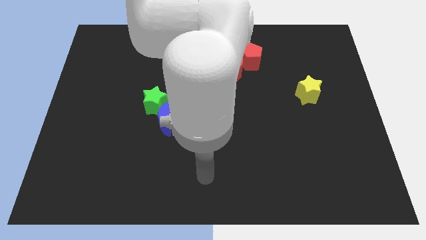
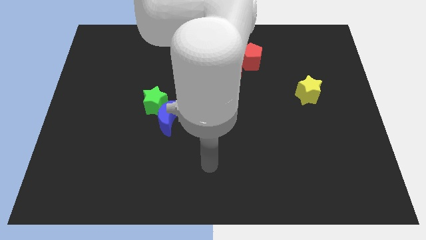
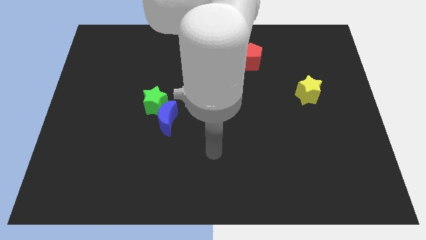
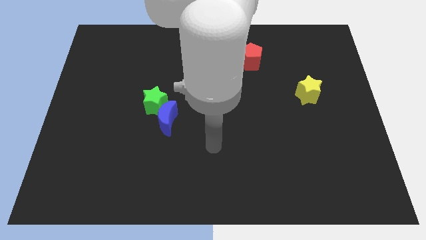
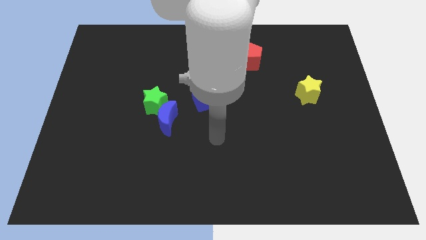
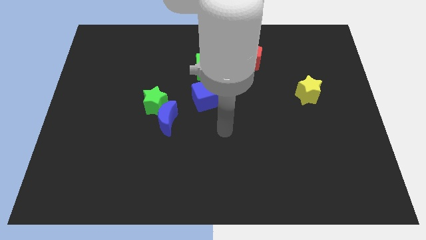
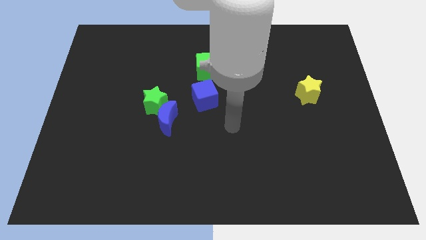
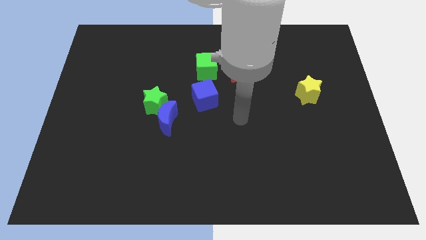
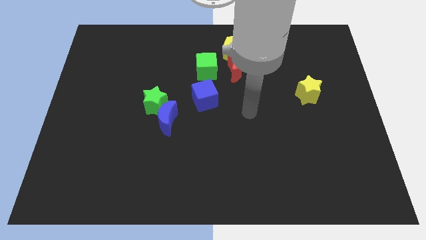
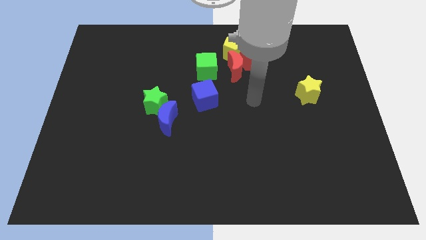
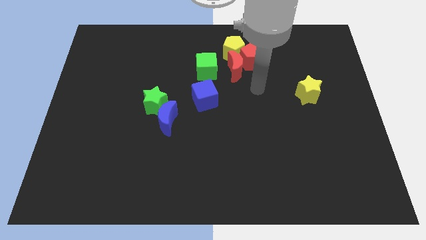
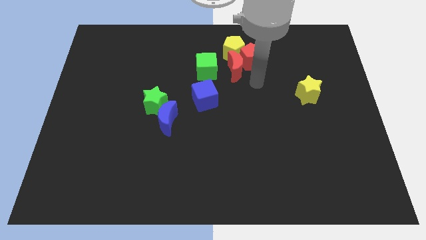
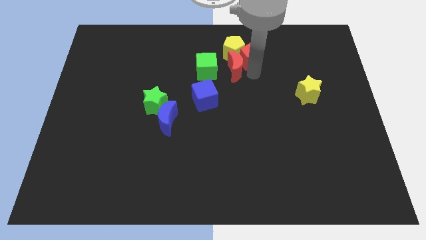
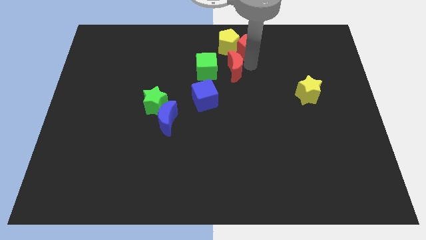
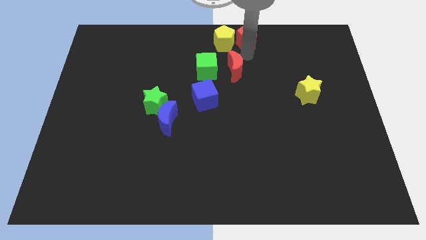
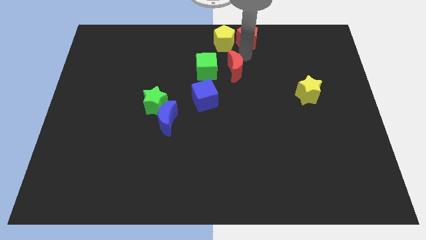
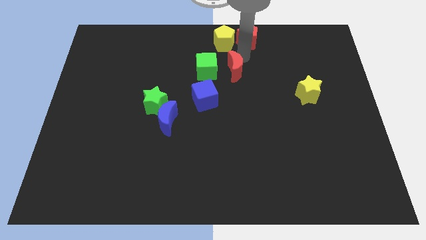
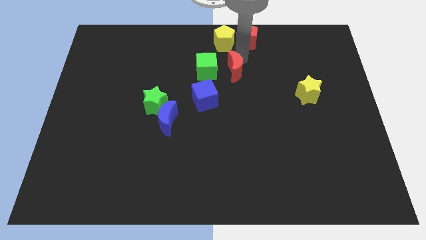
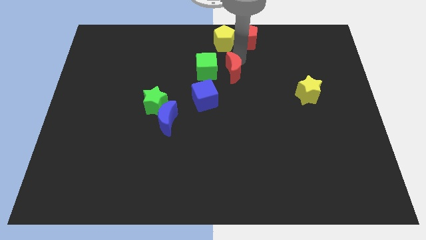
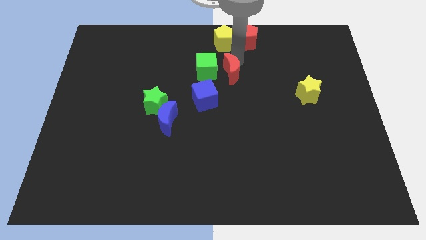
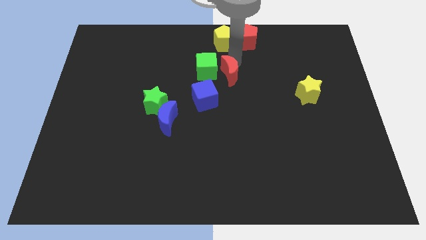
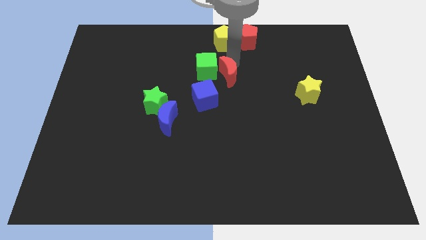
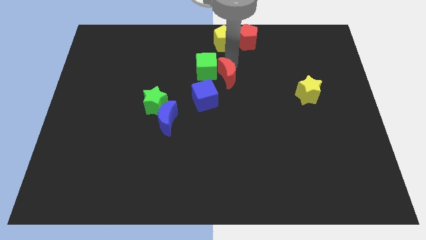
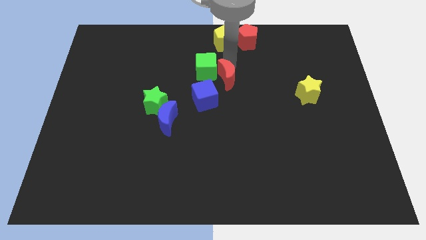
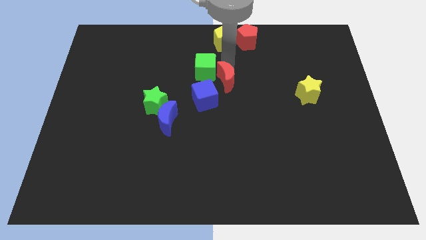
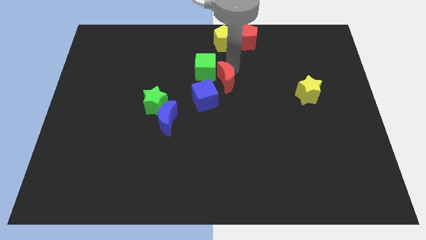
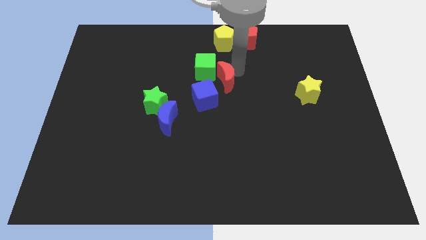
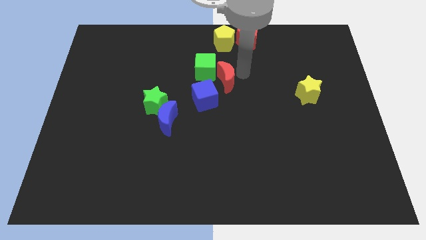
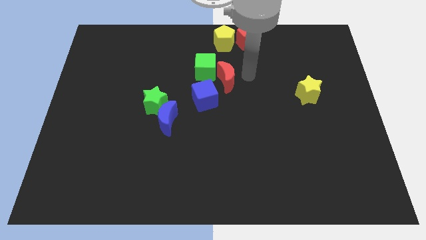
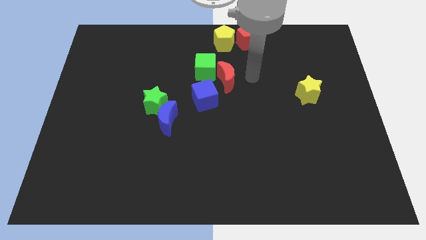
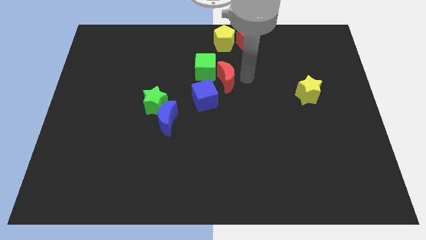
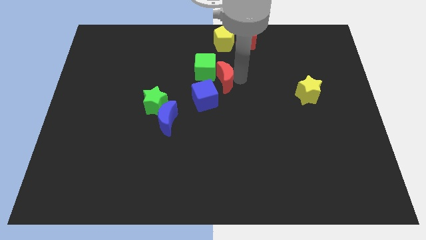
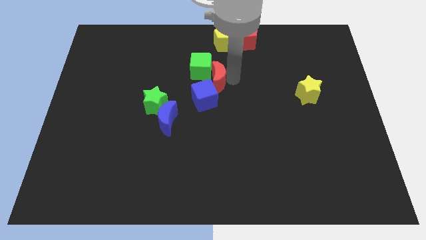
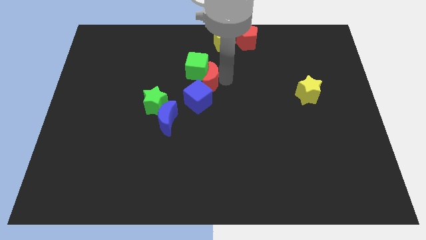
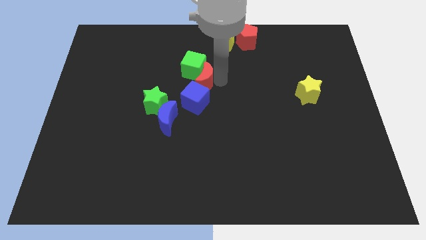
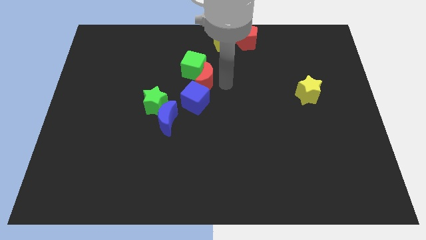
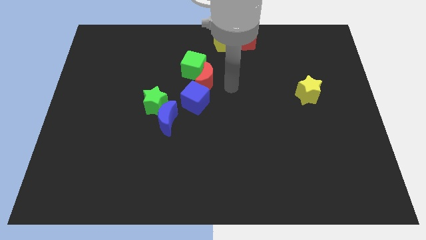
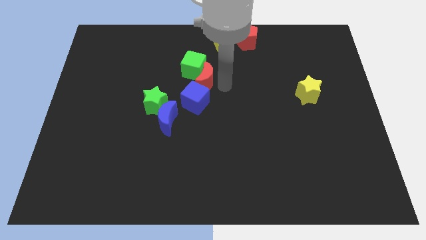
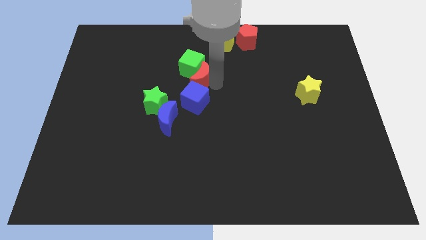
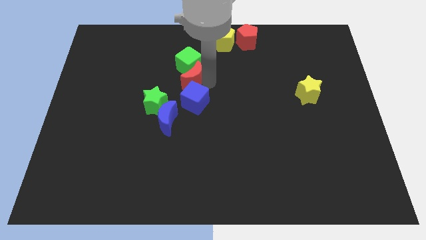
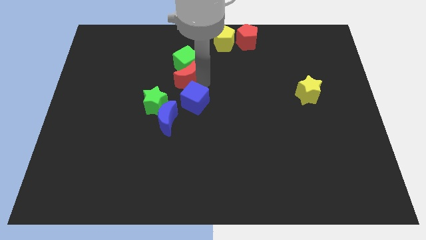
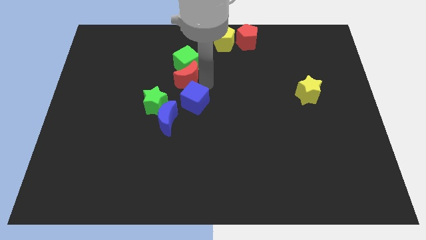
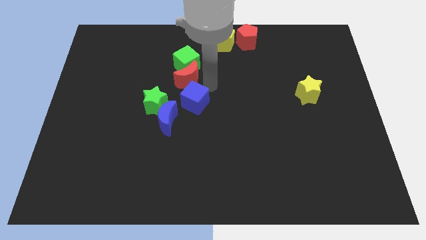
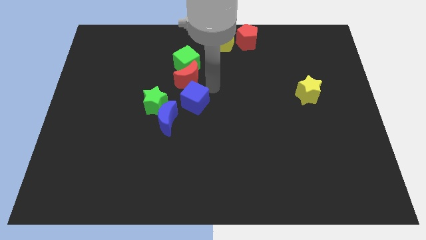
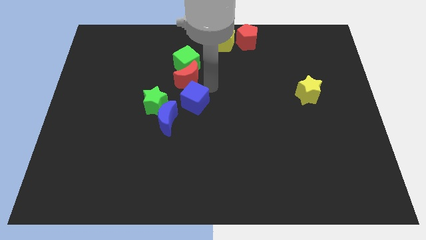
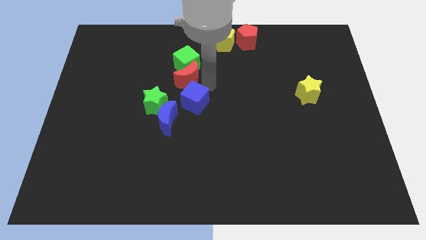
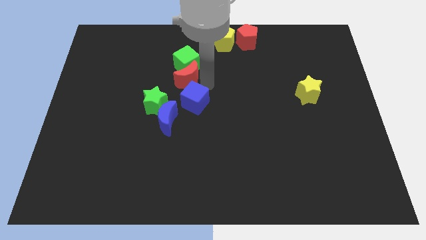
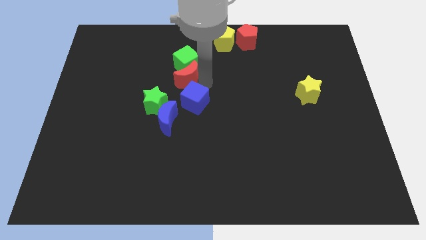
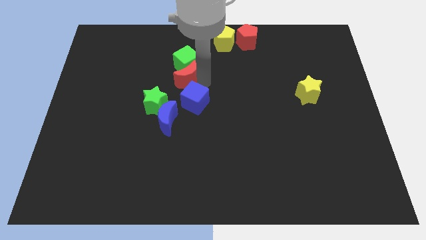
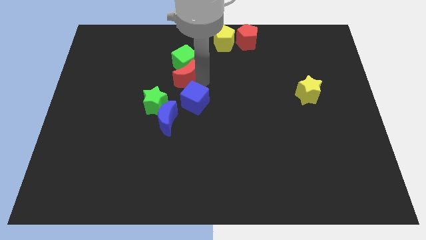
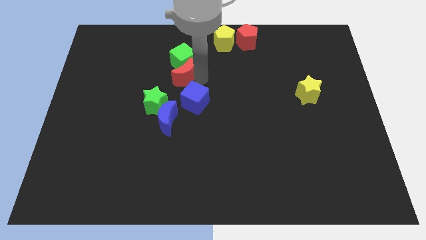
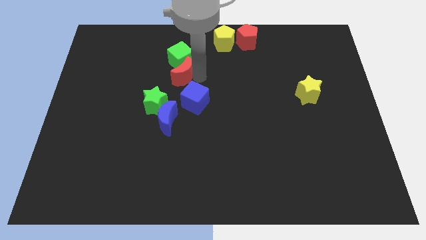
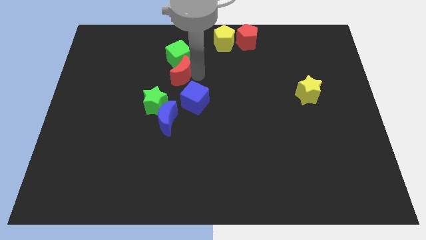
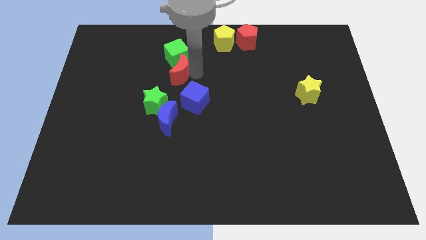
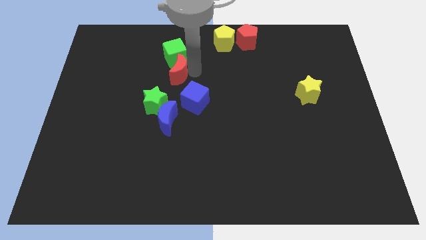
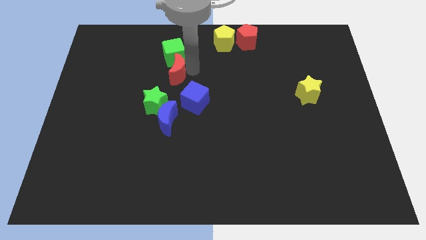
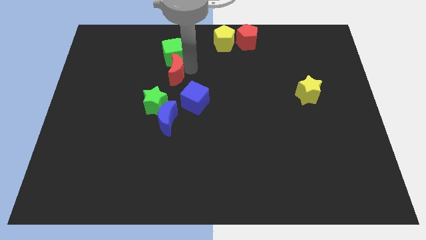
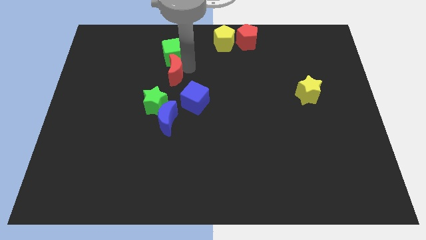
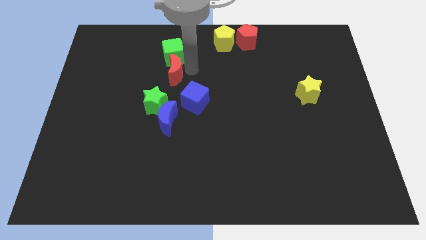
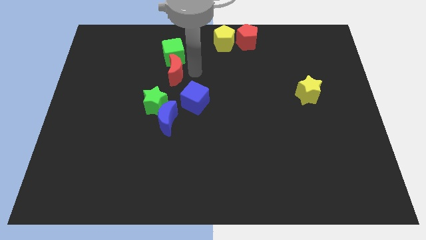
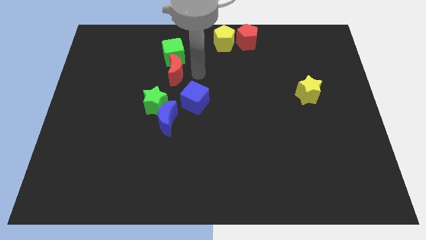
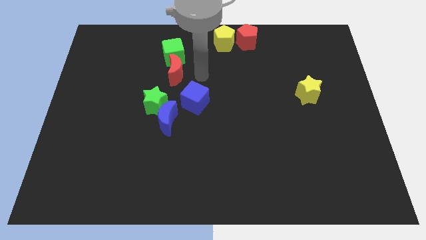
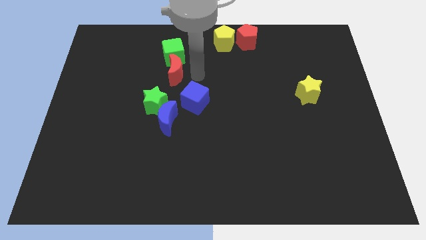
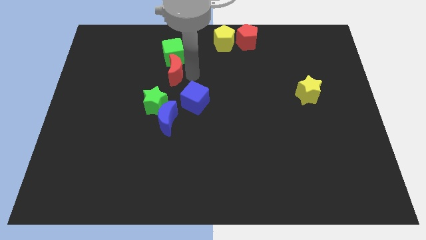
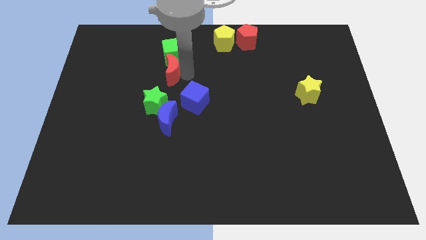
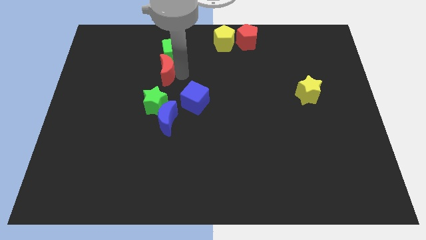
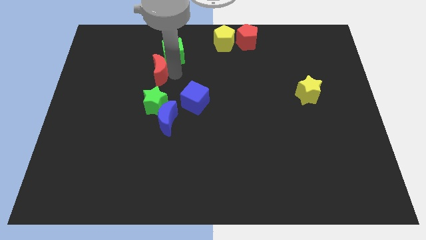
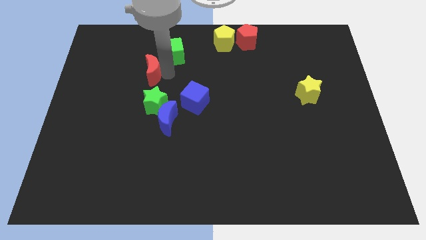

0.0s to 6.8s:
move the red moon left

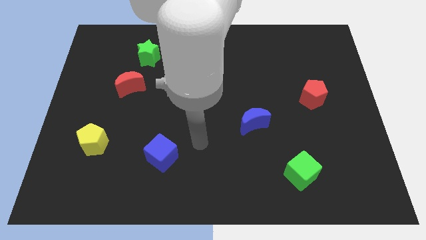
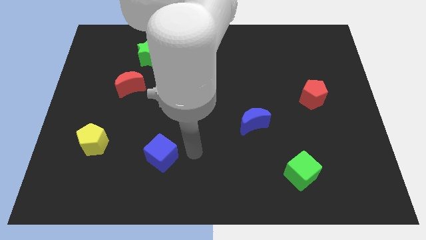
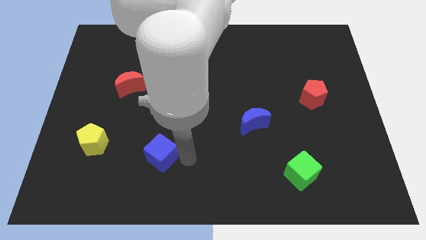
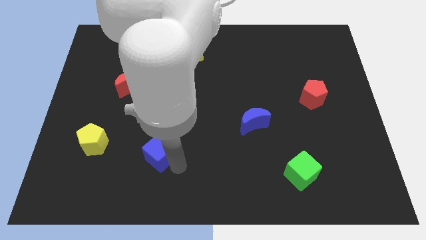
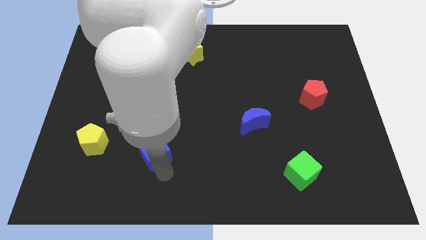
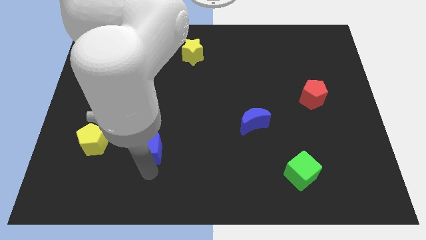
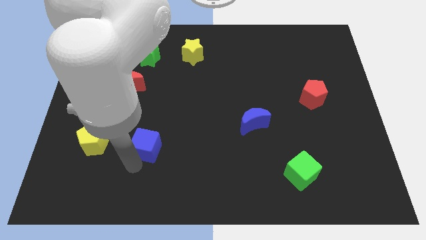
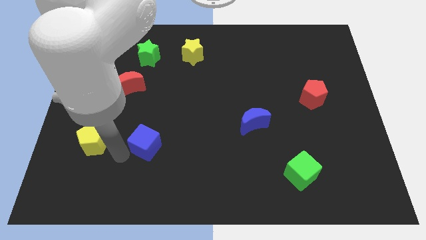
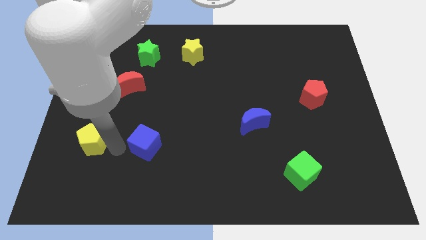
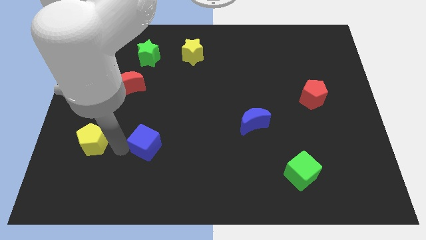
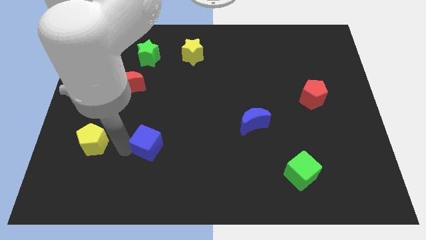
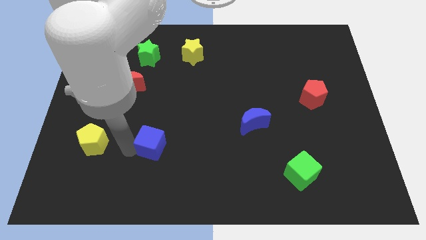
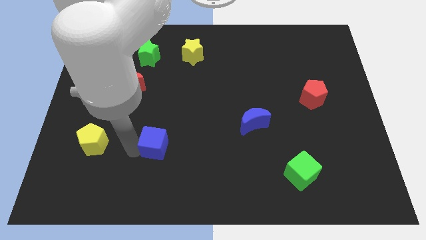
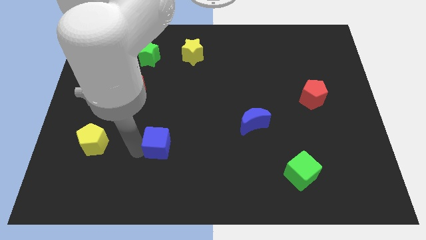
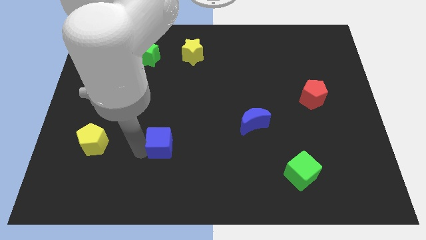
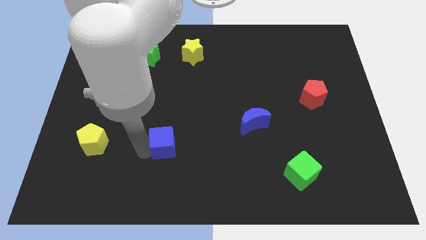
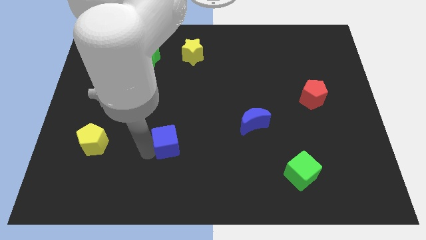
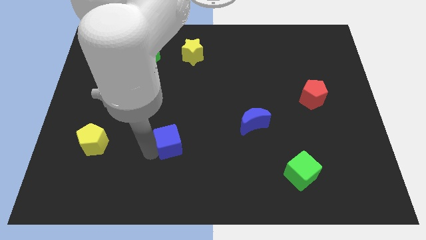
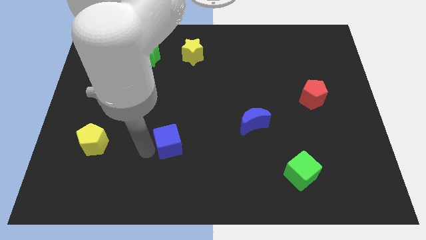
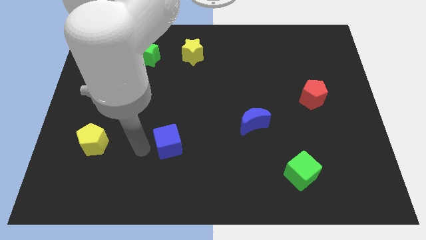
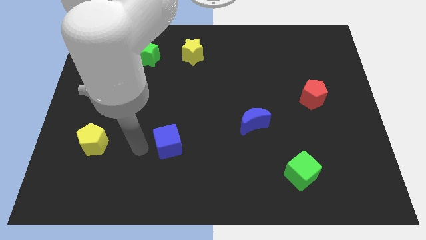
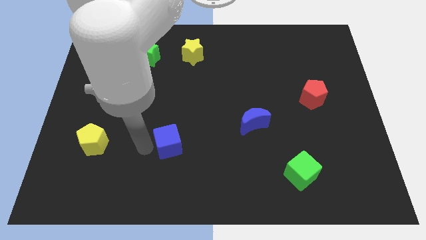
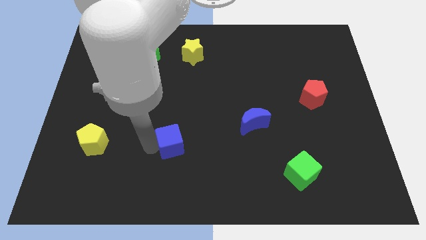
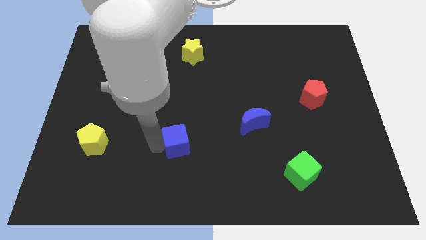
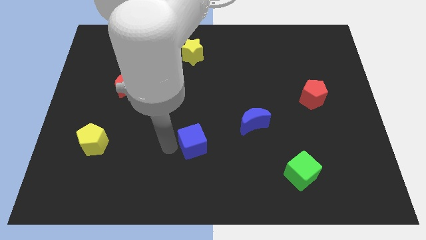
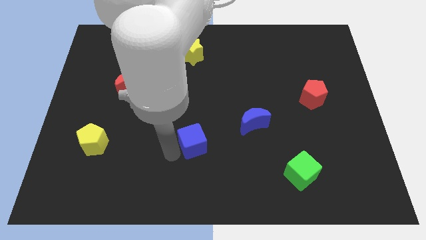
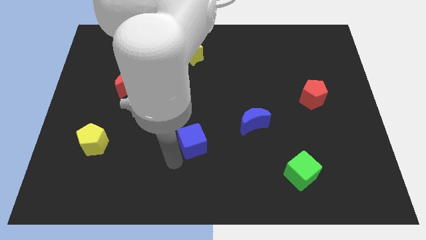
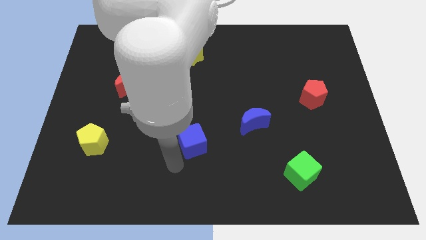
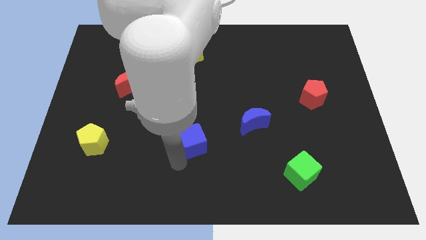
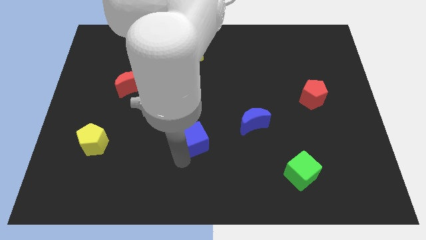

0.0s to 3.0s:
slightly move the blue cube diagonally upwards and to the right
